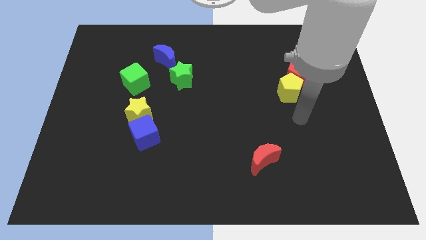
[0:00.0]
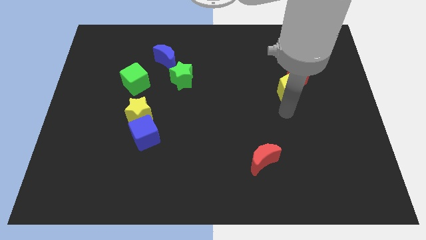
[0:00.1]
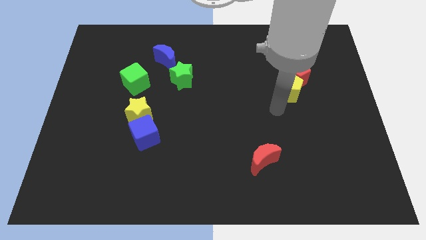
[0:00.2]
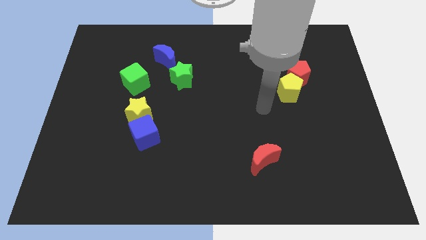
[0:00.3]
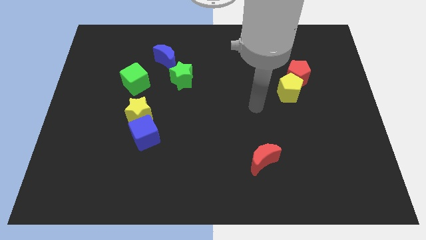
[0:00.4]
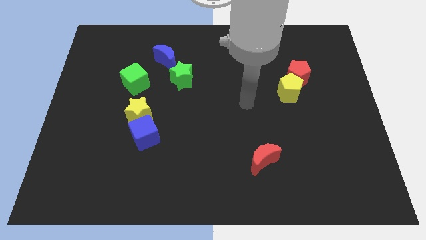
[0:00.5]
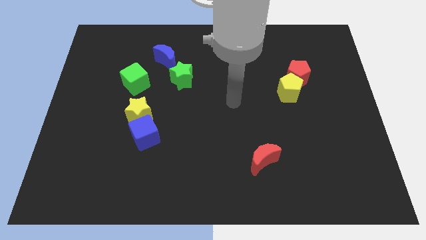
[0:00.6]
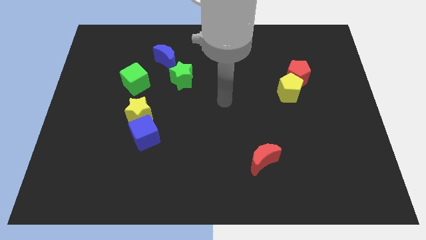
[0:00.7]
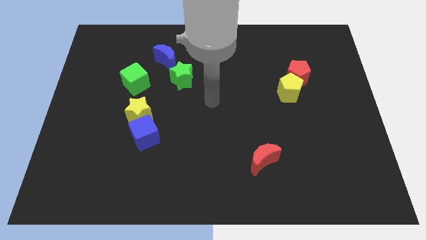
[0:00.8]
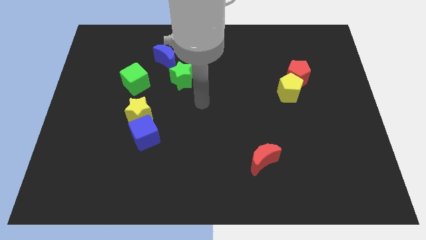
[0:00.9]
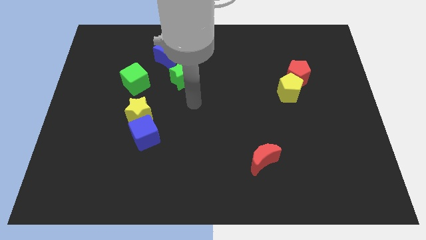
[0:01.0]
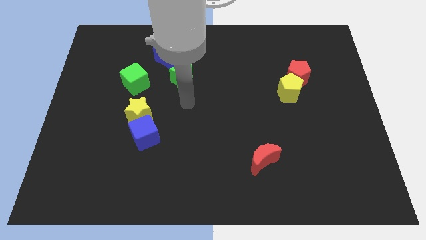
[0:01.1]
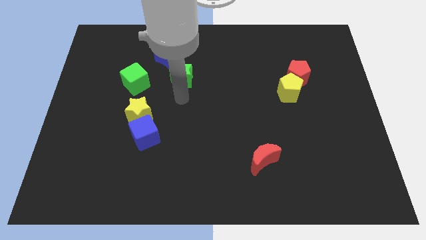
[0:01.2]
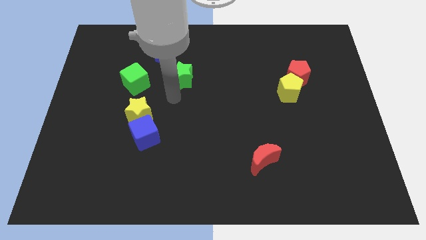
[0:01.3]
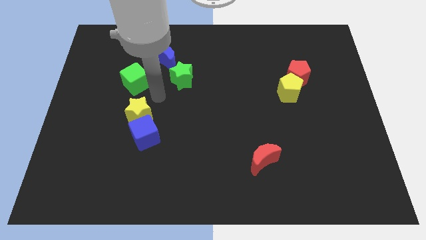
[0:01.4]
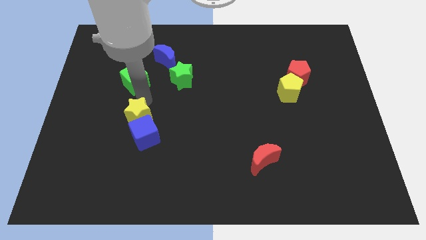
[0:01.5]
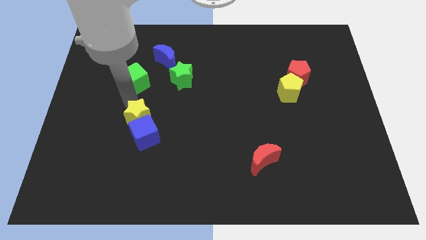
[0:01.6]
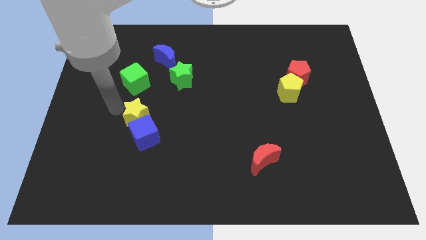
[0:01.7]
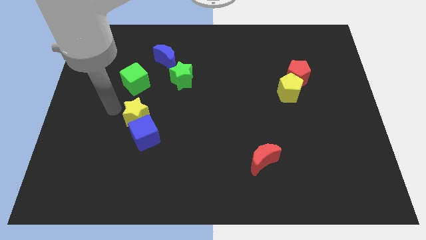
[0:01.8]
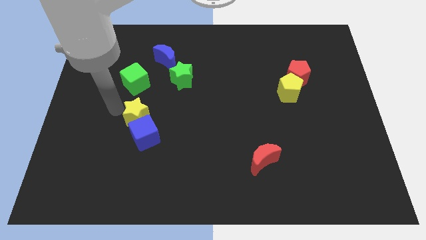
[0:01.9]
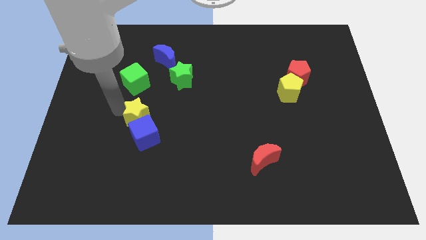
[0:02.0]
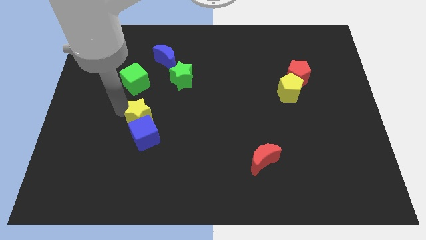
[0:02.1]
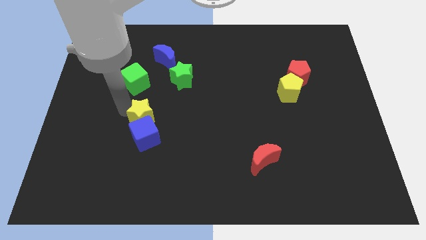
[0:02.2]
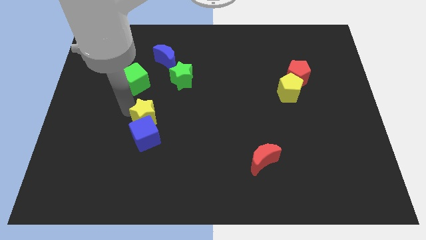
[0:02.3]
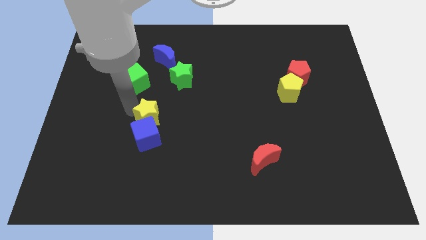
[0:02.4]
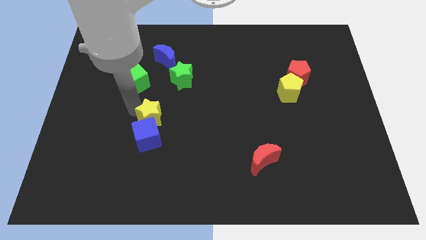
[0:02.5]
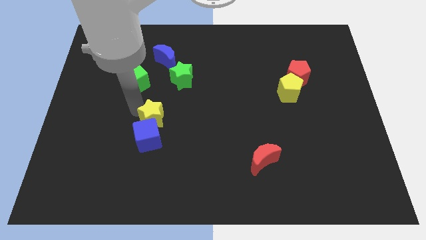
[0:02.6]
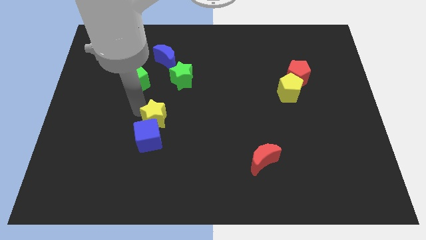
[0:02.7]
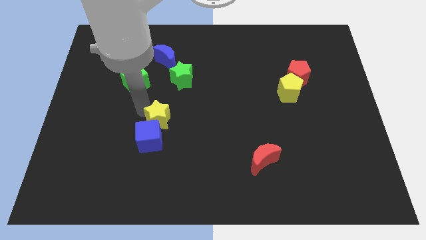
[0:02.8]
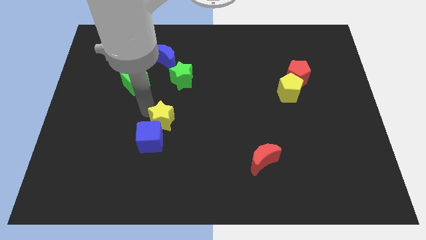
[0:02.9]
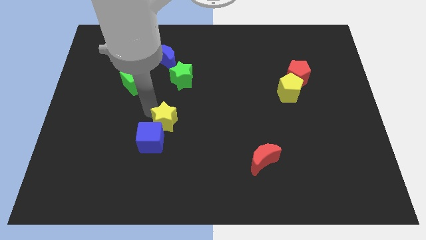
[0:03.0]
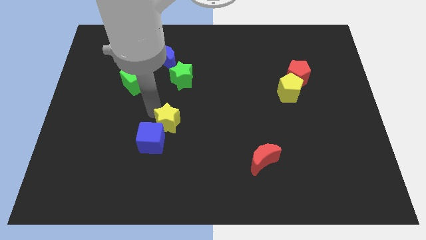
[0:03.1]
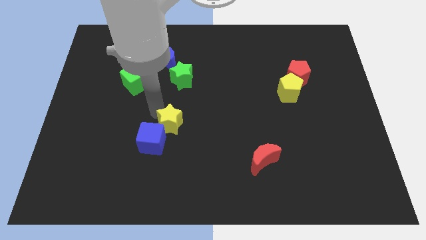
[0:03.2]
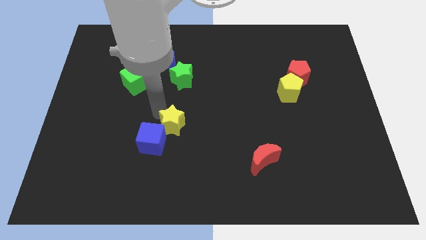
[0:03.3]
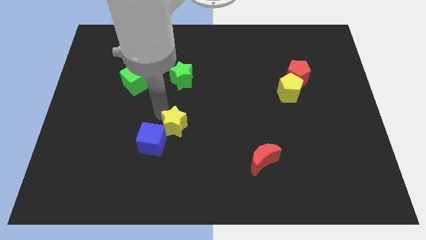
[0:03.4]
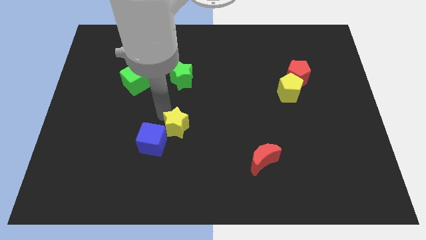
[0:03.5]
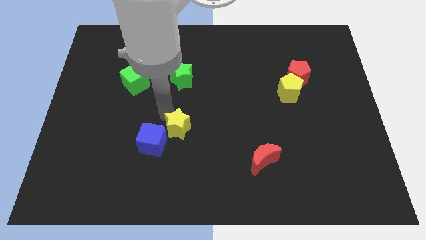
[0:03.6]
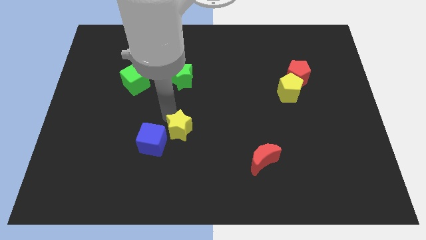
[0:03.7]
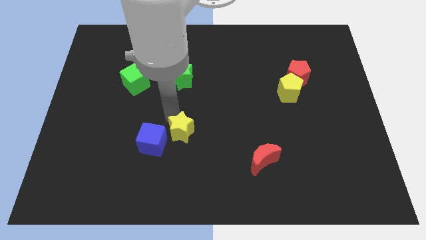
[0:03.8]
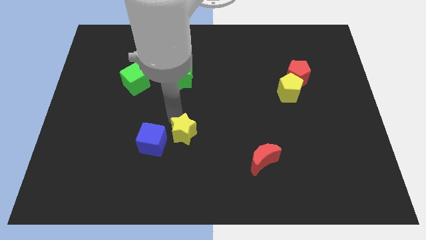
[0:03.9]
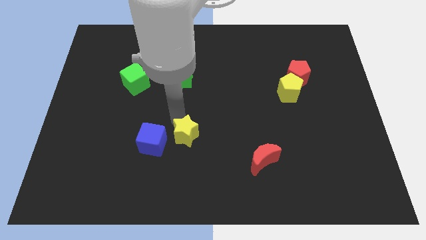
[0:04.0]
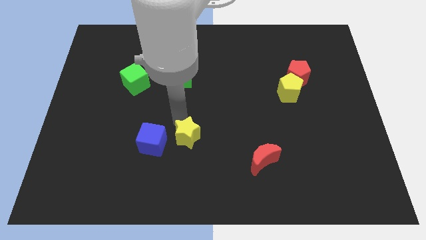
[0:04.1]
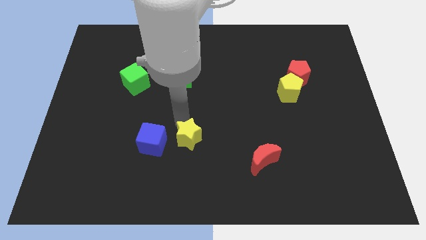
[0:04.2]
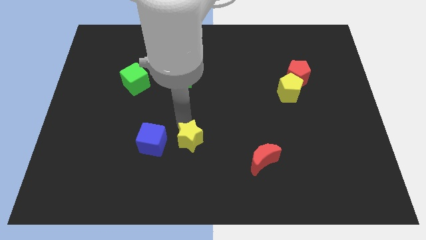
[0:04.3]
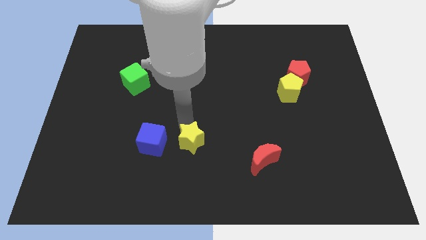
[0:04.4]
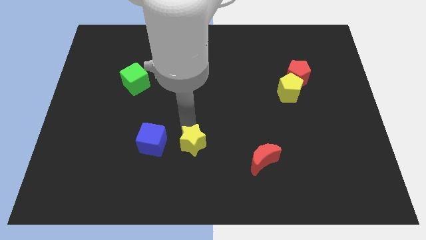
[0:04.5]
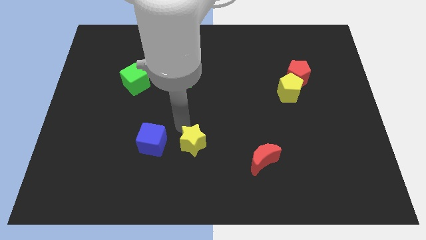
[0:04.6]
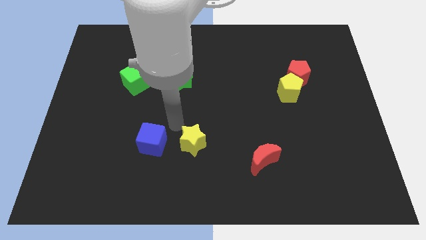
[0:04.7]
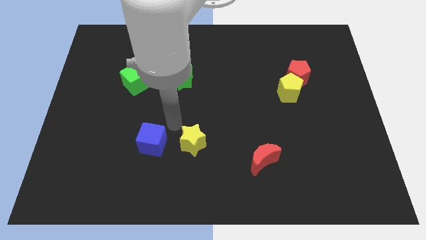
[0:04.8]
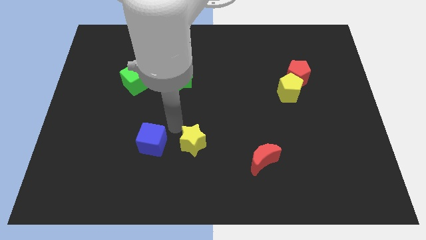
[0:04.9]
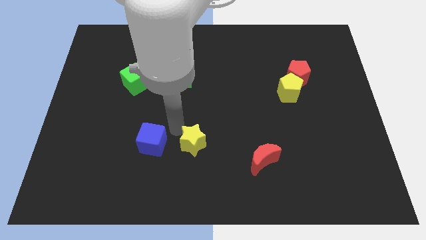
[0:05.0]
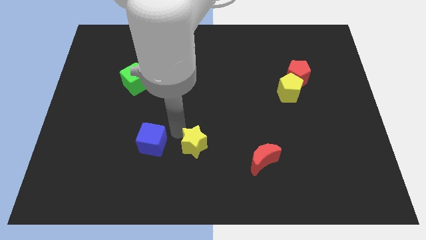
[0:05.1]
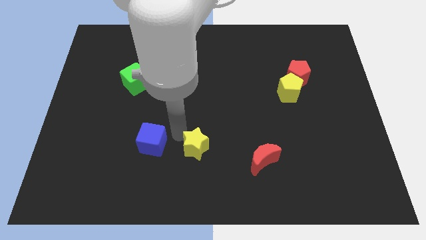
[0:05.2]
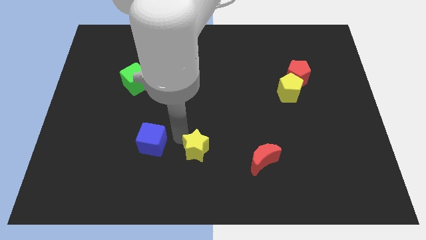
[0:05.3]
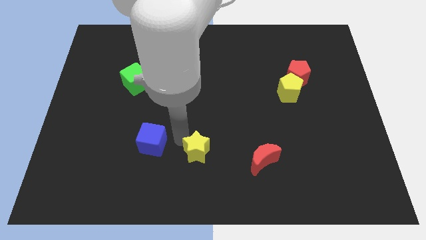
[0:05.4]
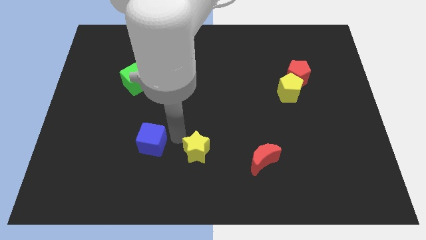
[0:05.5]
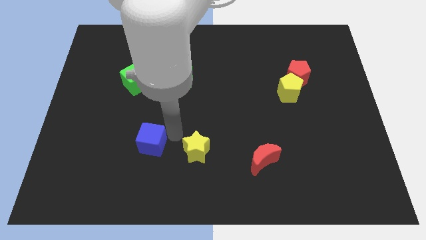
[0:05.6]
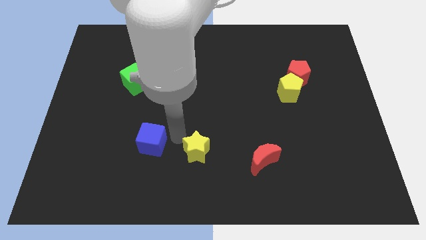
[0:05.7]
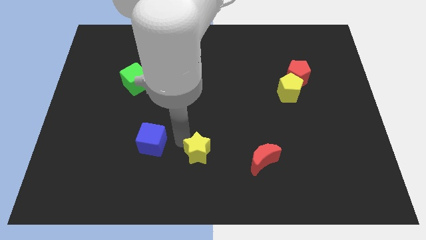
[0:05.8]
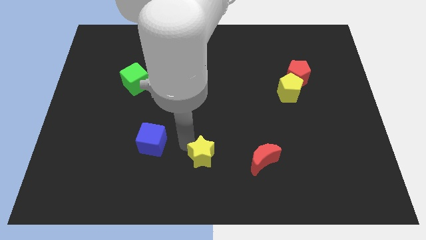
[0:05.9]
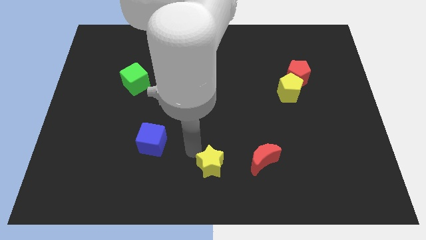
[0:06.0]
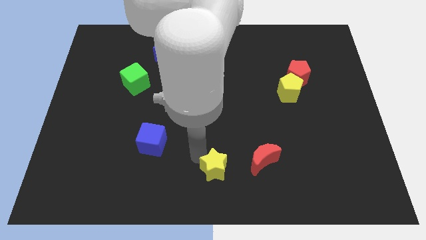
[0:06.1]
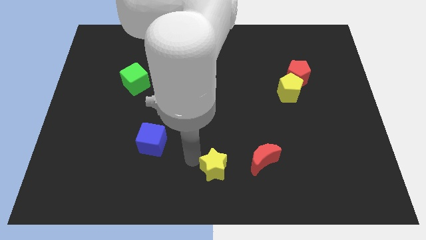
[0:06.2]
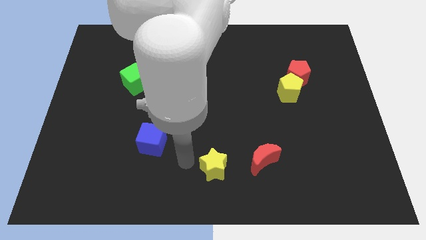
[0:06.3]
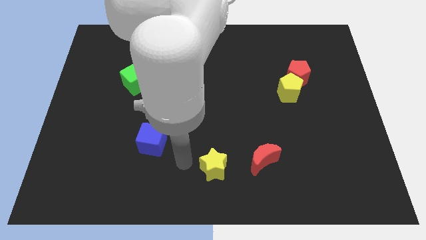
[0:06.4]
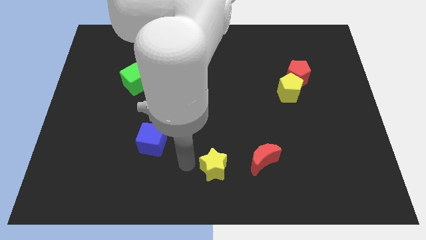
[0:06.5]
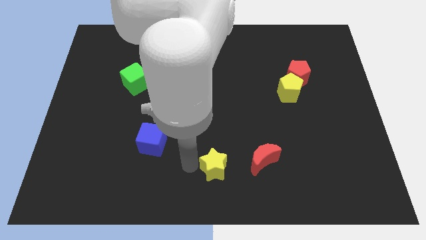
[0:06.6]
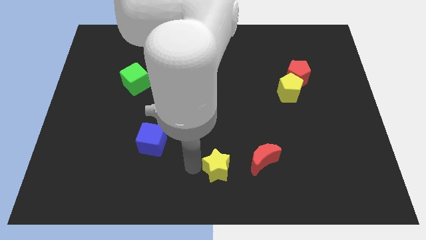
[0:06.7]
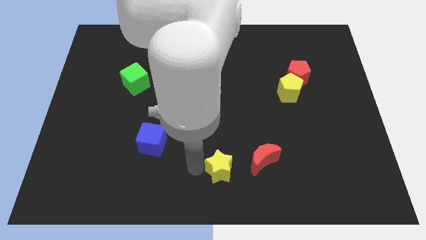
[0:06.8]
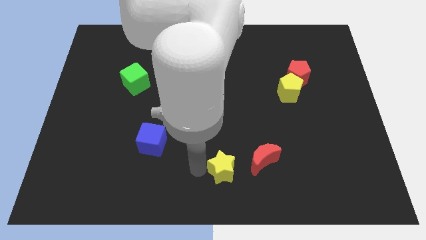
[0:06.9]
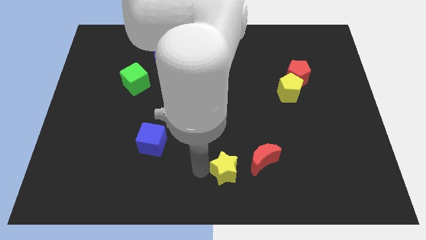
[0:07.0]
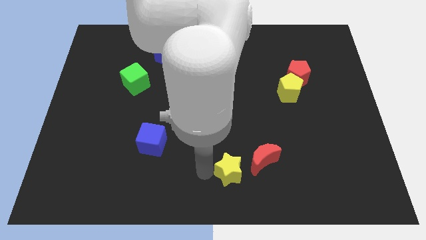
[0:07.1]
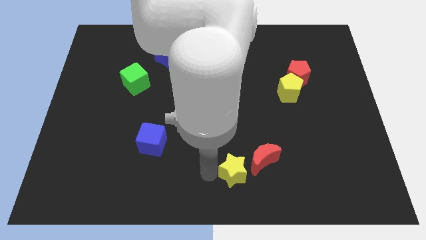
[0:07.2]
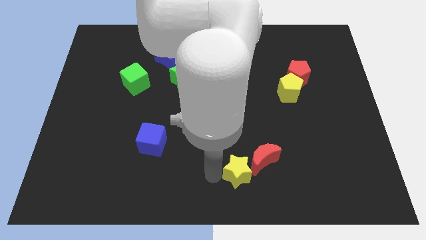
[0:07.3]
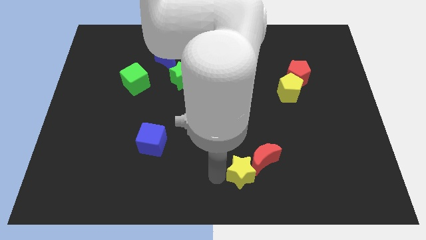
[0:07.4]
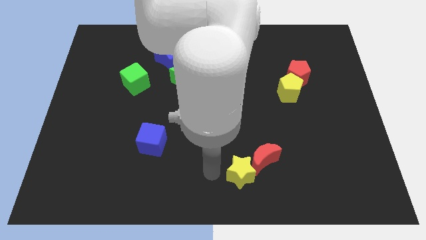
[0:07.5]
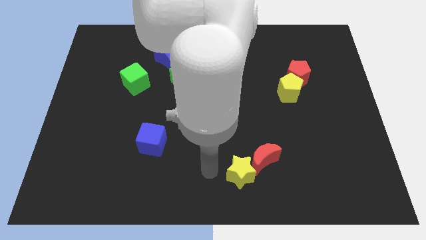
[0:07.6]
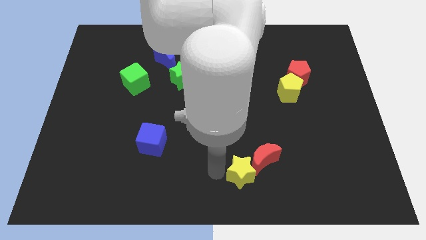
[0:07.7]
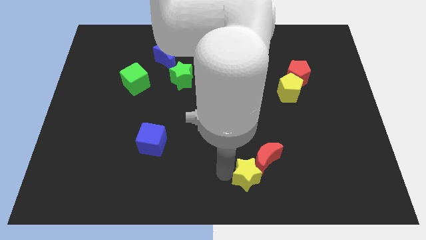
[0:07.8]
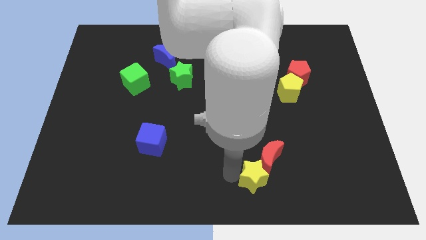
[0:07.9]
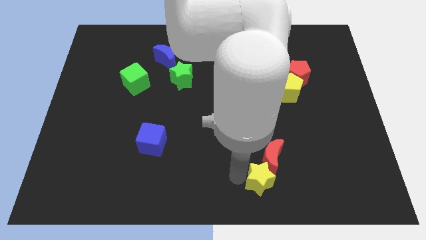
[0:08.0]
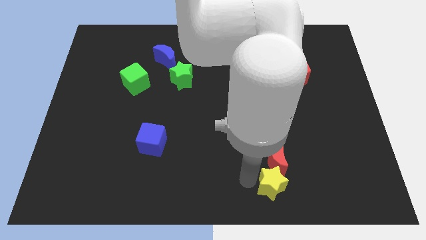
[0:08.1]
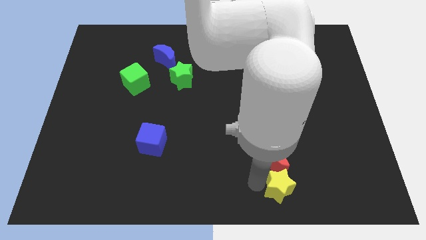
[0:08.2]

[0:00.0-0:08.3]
move the yellow star to the bottom right of the red moon
